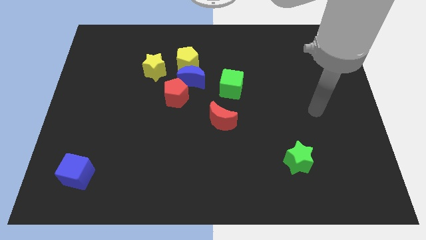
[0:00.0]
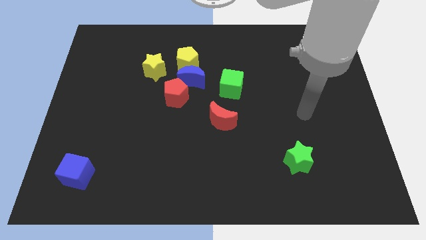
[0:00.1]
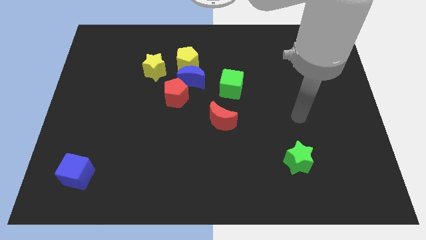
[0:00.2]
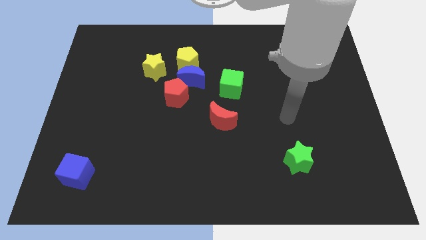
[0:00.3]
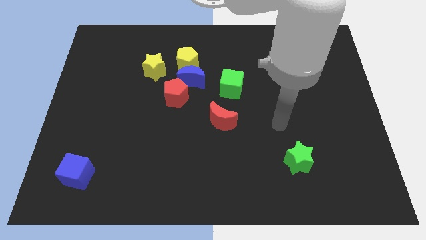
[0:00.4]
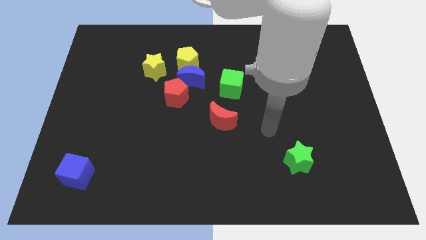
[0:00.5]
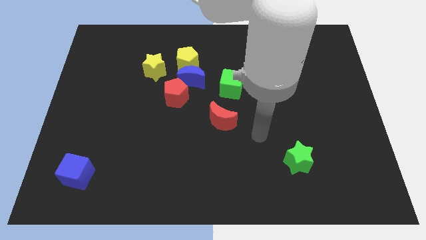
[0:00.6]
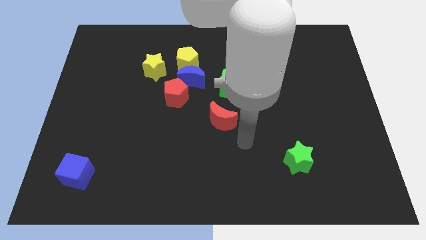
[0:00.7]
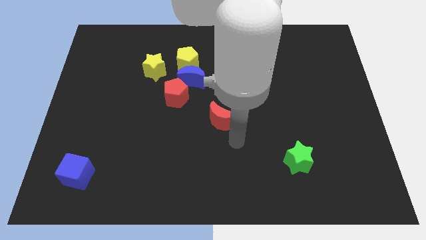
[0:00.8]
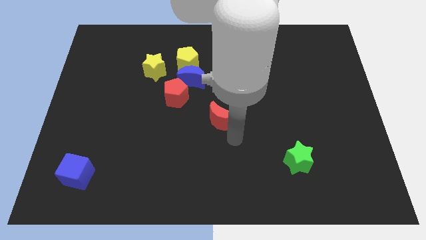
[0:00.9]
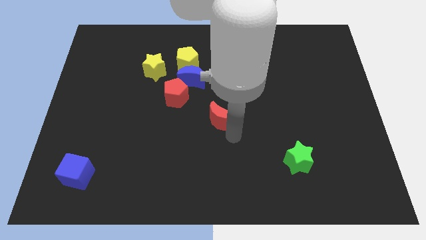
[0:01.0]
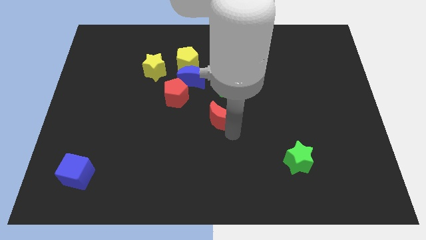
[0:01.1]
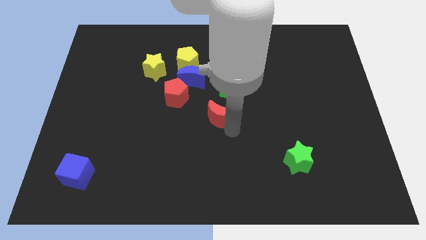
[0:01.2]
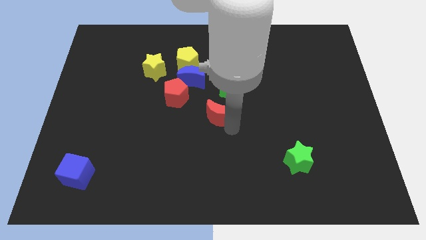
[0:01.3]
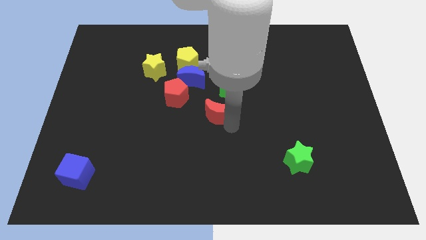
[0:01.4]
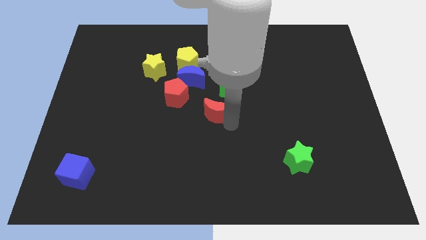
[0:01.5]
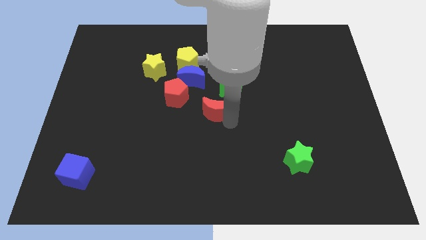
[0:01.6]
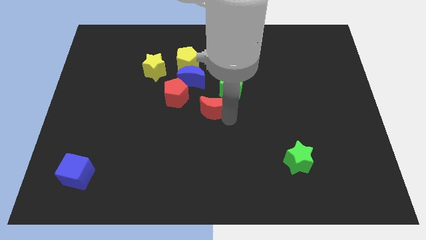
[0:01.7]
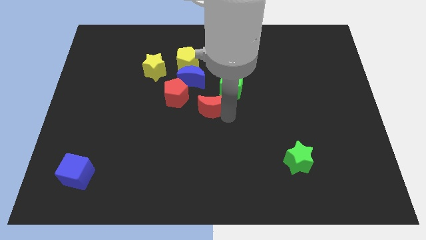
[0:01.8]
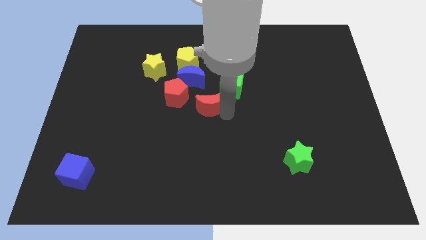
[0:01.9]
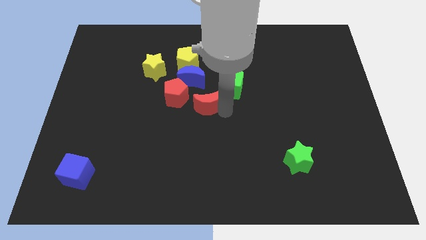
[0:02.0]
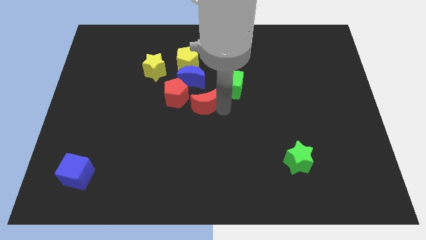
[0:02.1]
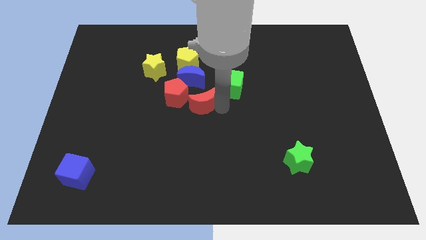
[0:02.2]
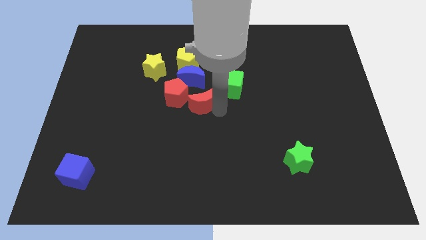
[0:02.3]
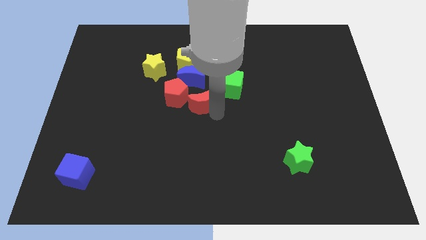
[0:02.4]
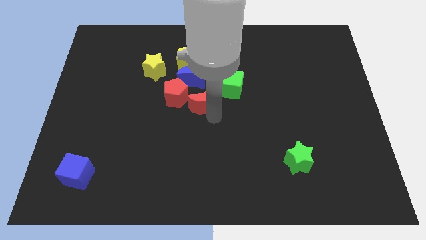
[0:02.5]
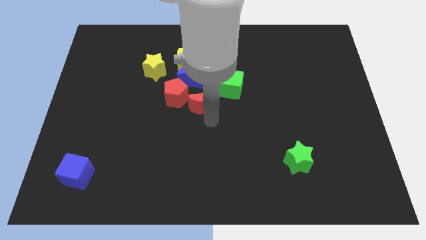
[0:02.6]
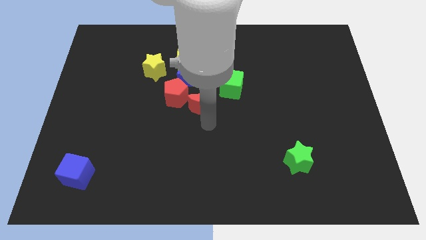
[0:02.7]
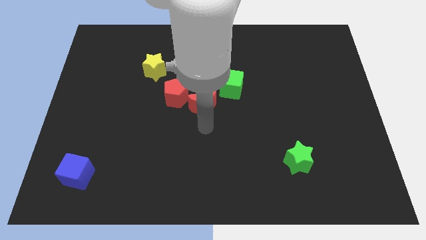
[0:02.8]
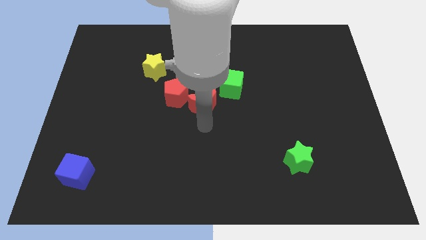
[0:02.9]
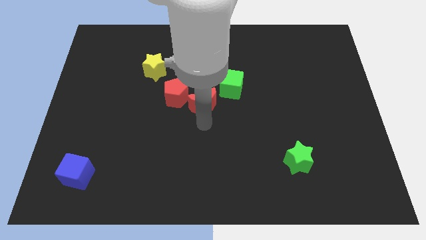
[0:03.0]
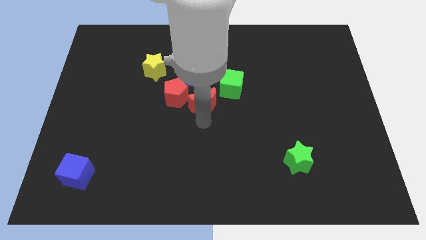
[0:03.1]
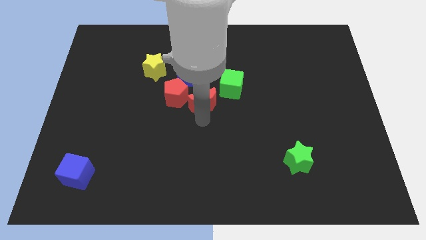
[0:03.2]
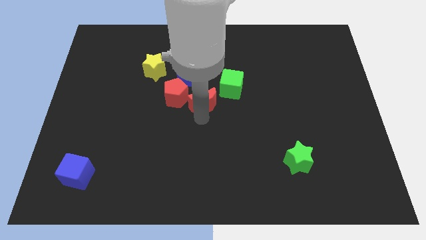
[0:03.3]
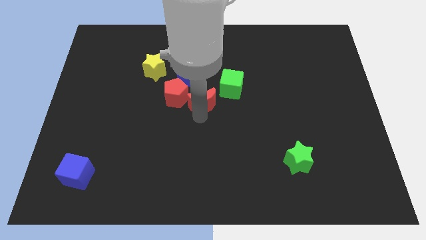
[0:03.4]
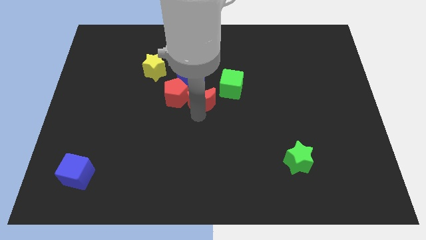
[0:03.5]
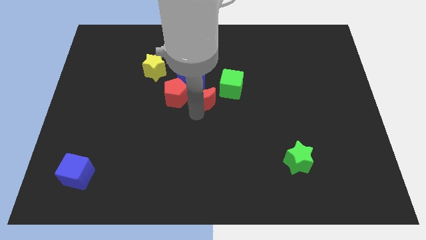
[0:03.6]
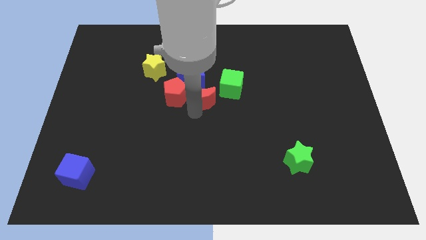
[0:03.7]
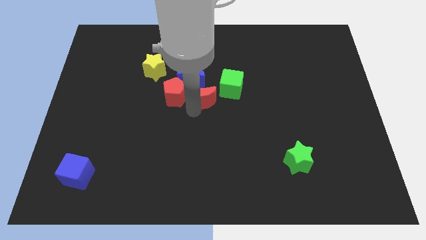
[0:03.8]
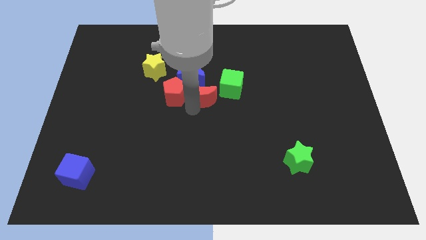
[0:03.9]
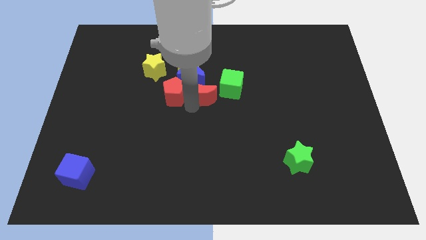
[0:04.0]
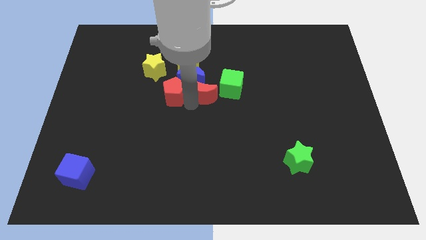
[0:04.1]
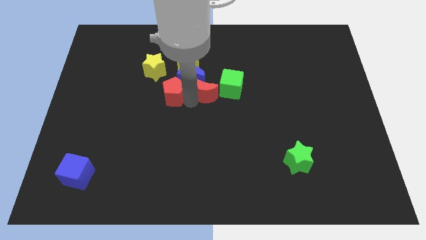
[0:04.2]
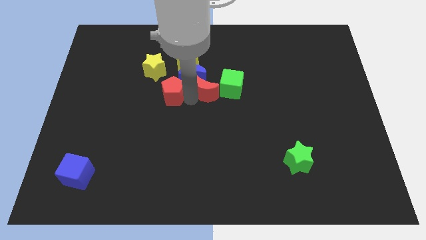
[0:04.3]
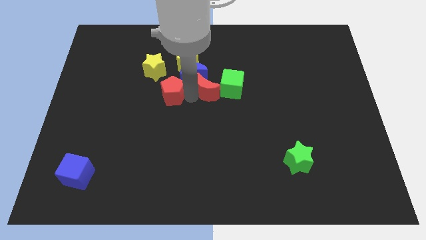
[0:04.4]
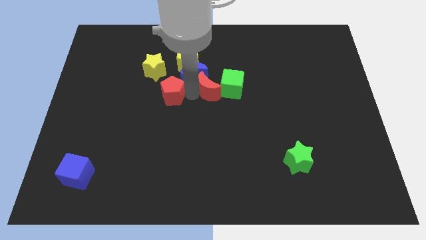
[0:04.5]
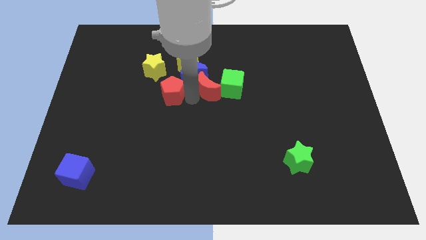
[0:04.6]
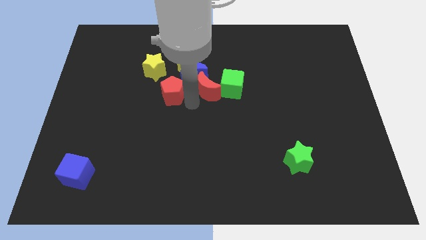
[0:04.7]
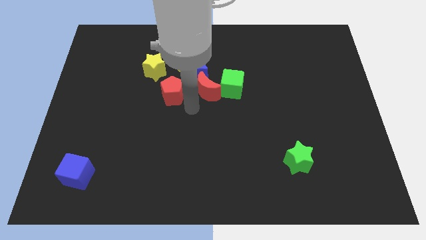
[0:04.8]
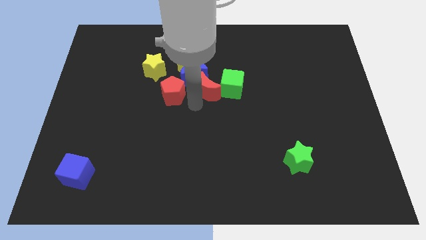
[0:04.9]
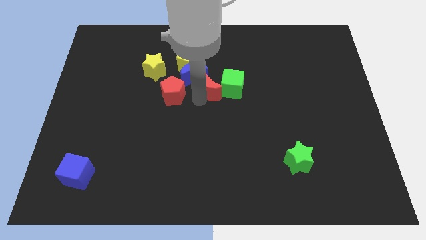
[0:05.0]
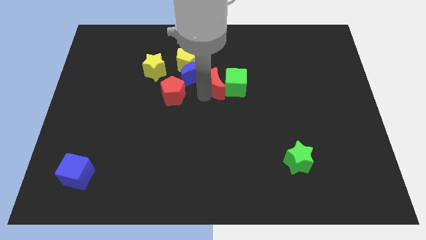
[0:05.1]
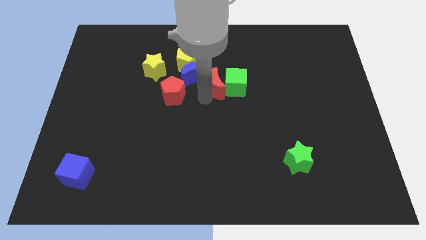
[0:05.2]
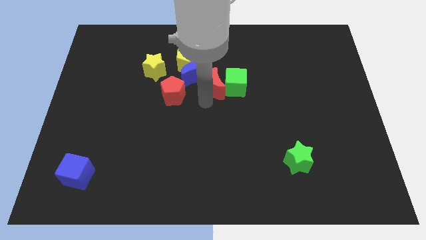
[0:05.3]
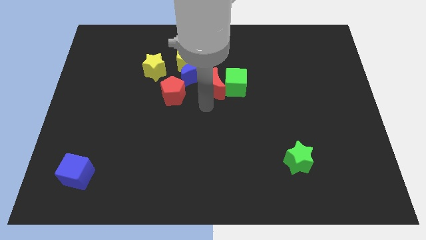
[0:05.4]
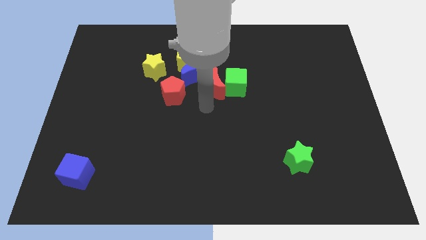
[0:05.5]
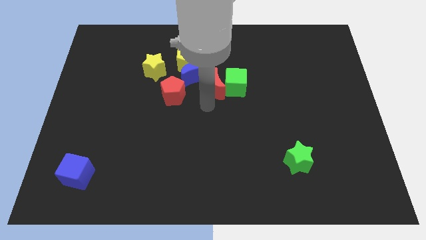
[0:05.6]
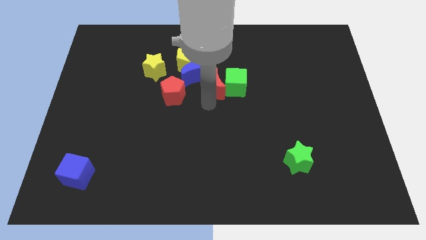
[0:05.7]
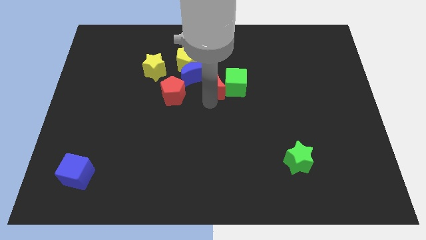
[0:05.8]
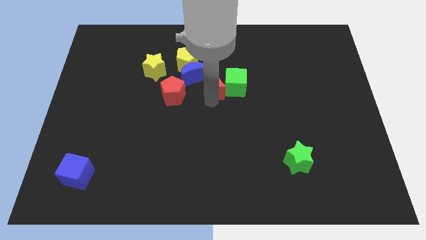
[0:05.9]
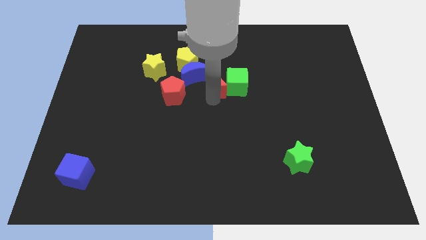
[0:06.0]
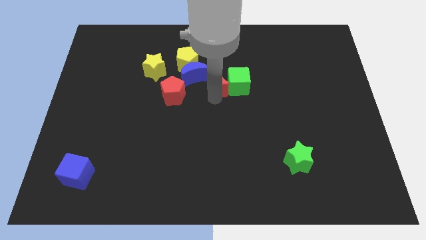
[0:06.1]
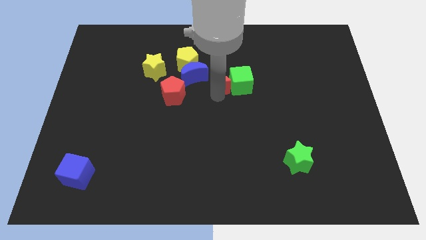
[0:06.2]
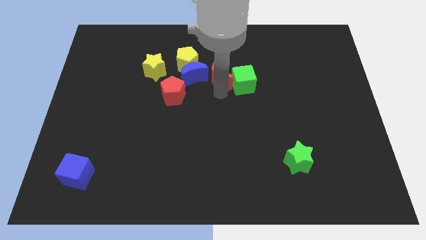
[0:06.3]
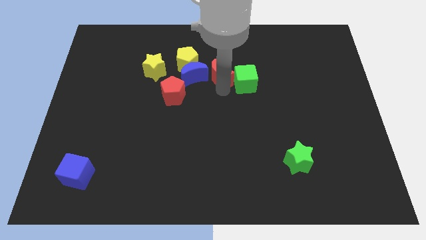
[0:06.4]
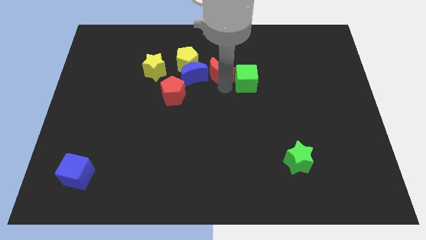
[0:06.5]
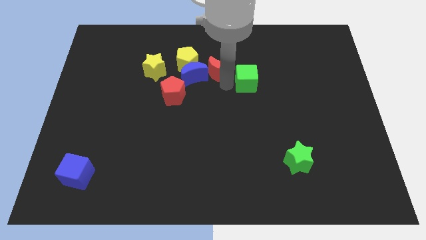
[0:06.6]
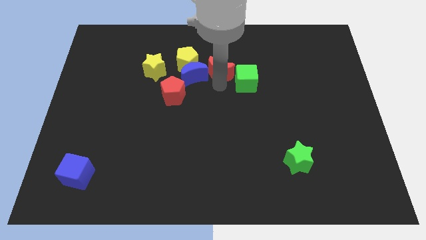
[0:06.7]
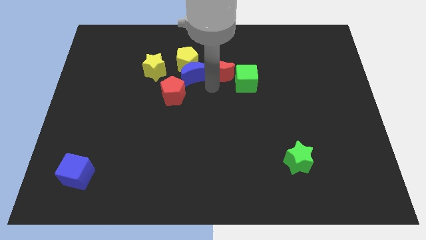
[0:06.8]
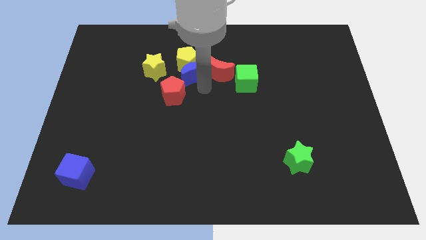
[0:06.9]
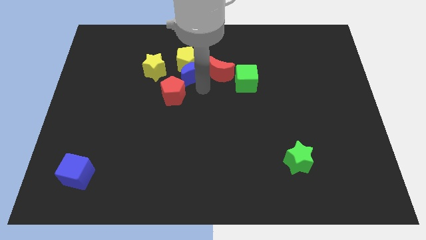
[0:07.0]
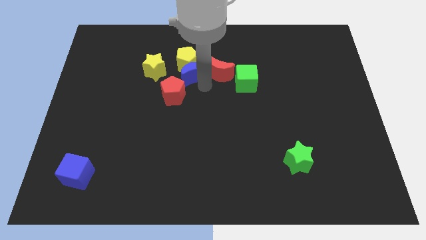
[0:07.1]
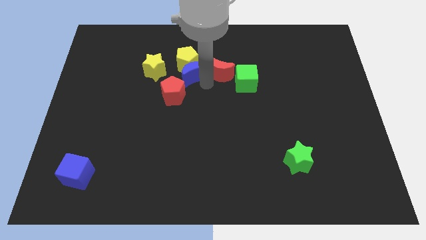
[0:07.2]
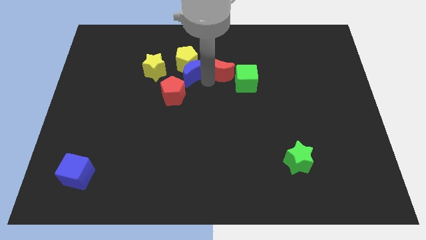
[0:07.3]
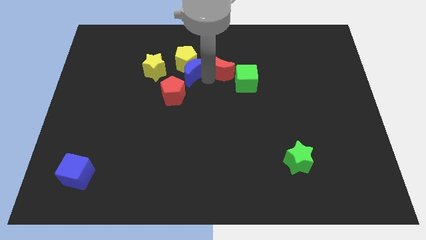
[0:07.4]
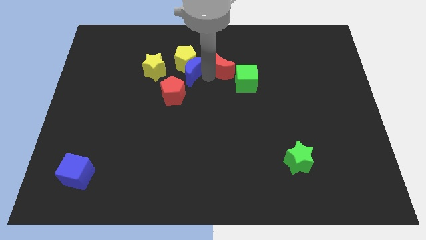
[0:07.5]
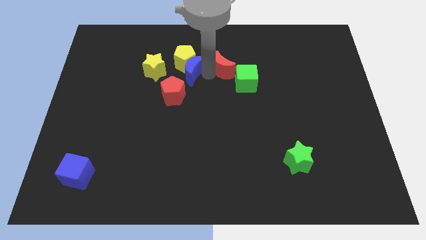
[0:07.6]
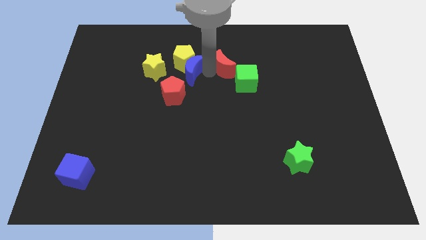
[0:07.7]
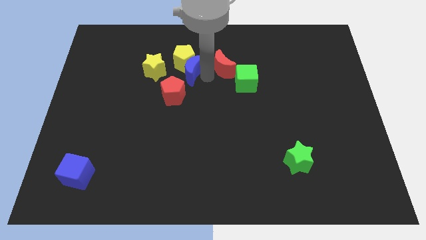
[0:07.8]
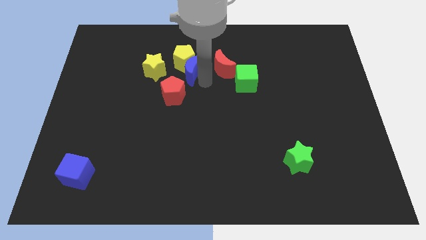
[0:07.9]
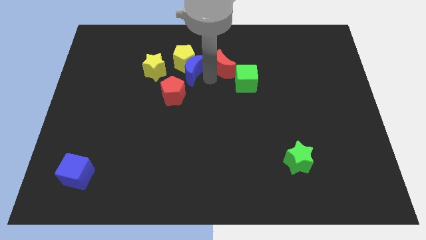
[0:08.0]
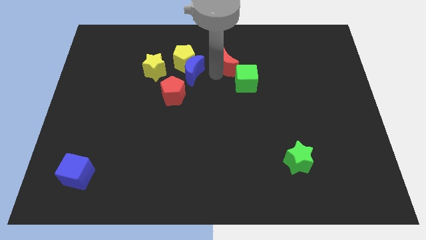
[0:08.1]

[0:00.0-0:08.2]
push the red moon to the top side of the green cube
